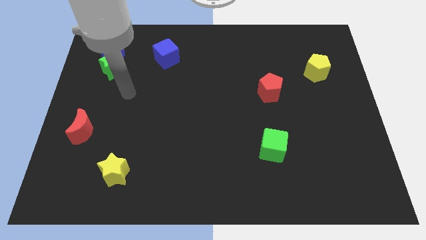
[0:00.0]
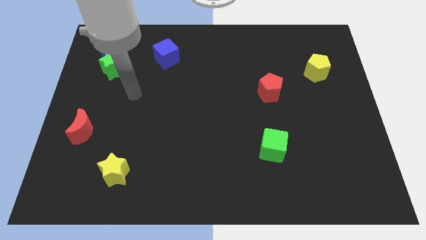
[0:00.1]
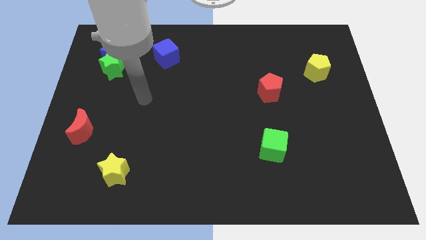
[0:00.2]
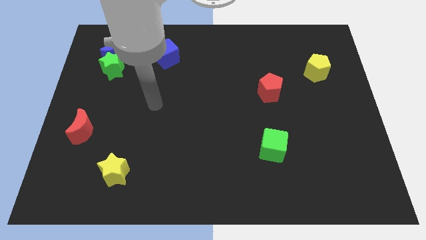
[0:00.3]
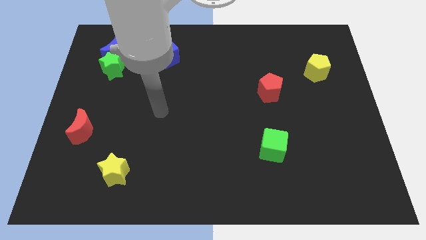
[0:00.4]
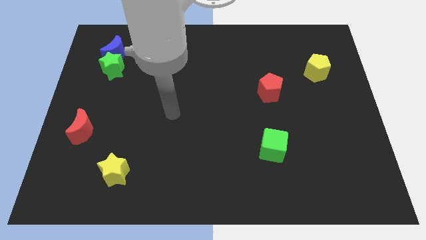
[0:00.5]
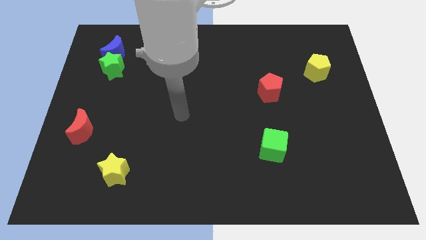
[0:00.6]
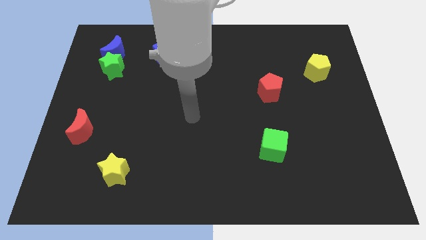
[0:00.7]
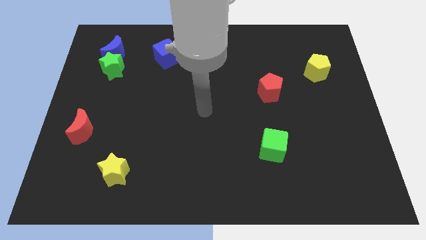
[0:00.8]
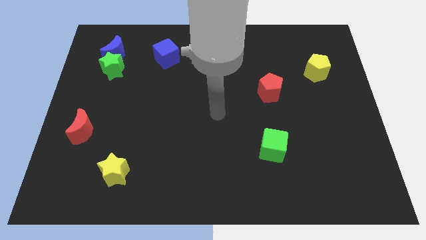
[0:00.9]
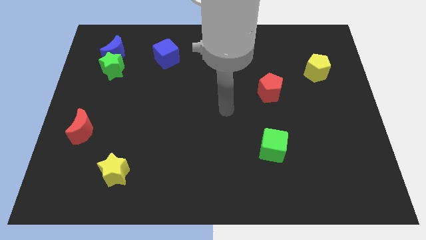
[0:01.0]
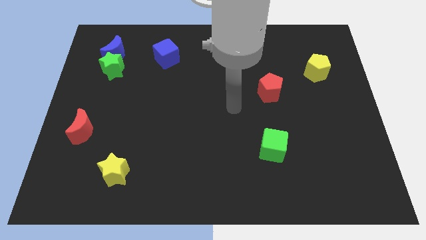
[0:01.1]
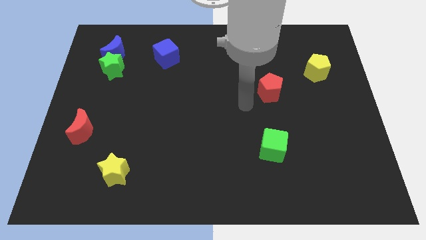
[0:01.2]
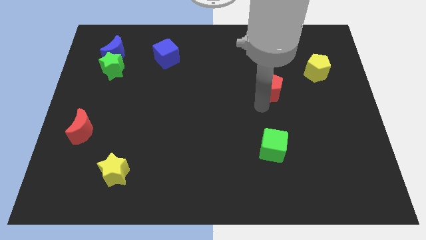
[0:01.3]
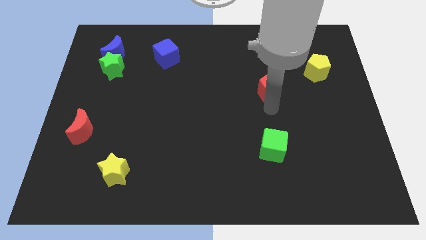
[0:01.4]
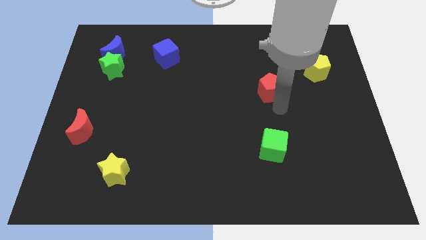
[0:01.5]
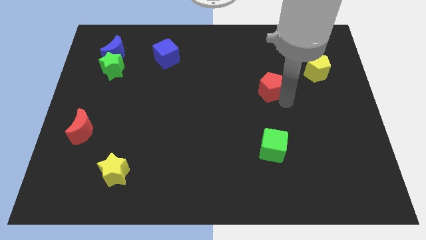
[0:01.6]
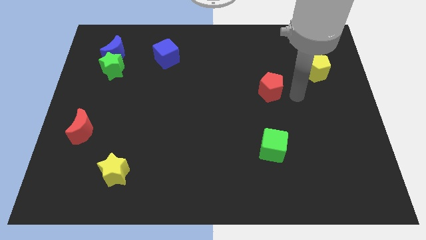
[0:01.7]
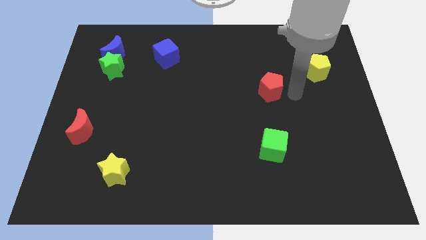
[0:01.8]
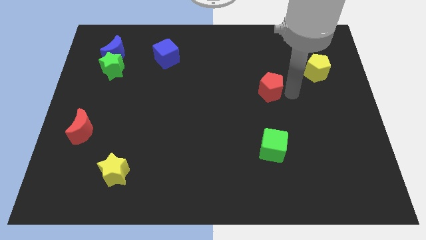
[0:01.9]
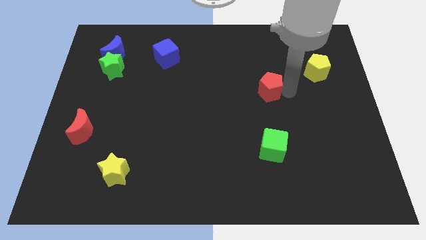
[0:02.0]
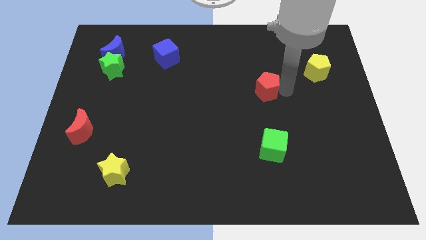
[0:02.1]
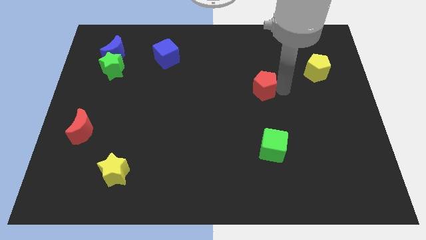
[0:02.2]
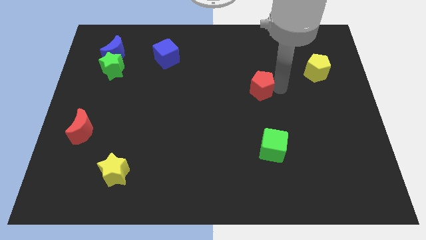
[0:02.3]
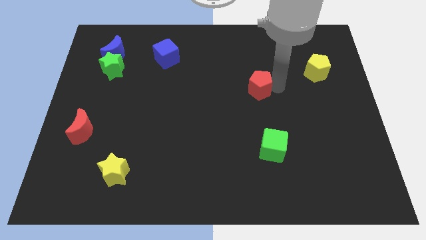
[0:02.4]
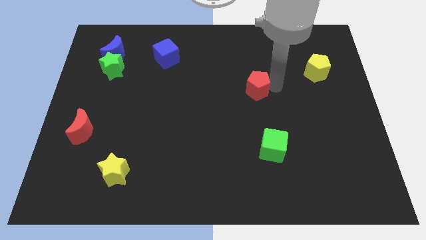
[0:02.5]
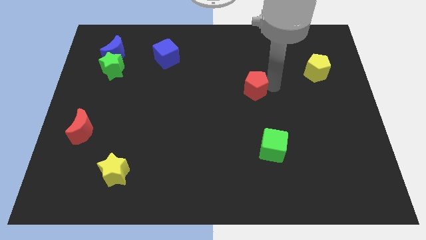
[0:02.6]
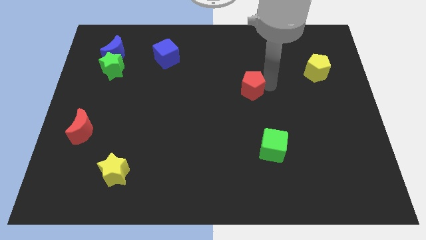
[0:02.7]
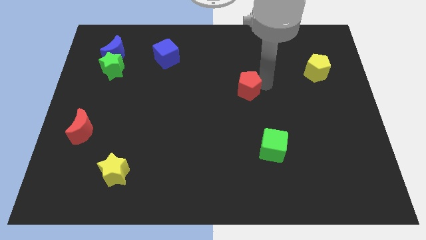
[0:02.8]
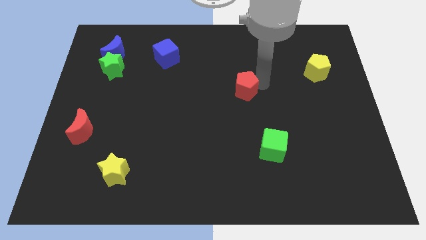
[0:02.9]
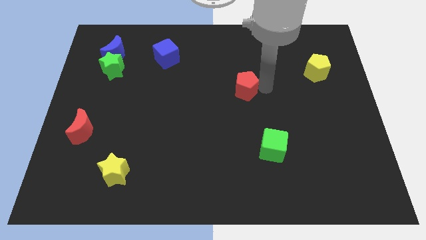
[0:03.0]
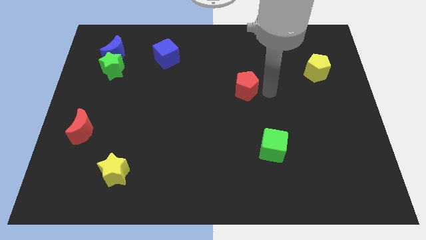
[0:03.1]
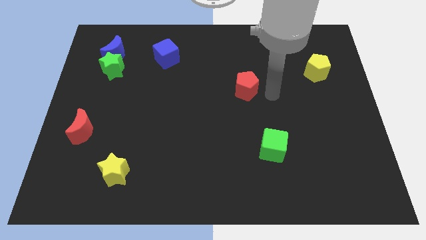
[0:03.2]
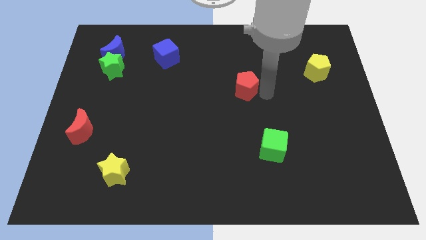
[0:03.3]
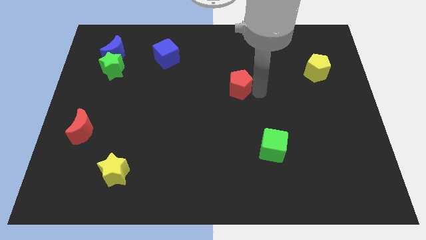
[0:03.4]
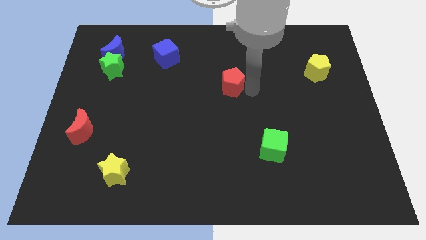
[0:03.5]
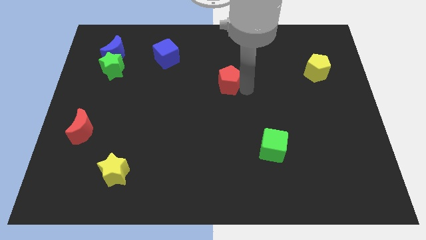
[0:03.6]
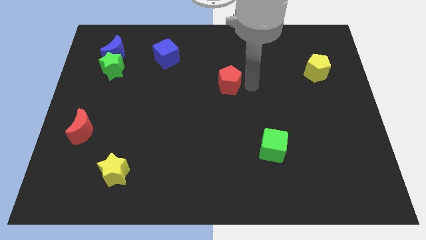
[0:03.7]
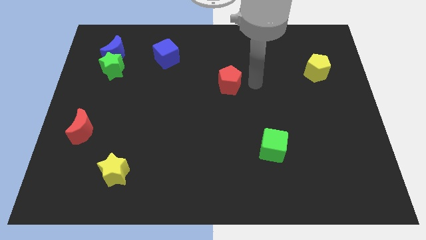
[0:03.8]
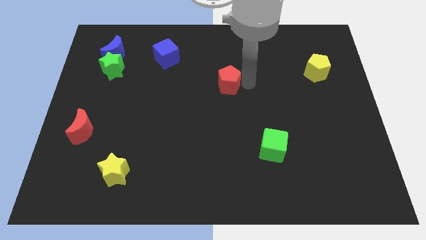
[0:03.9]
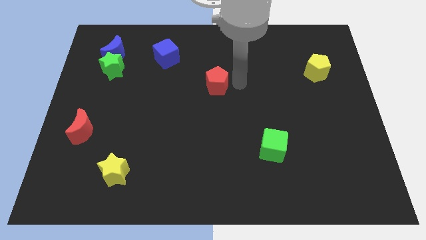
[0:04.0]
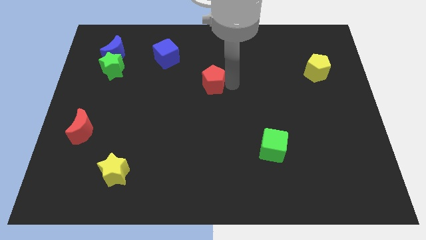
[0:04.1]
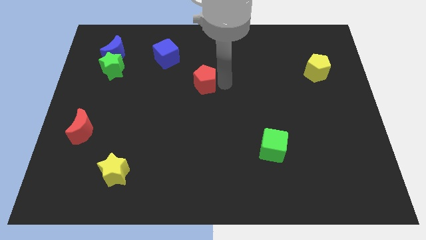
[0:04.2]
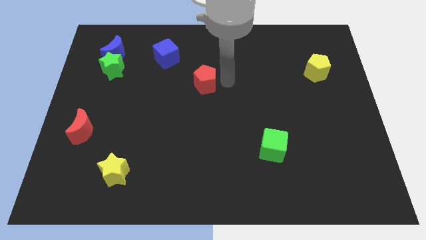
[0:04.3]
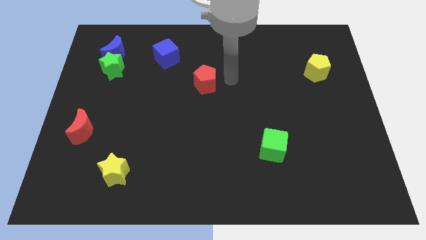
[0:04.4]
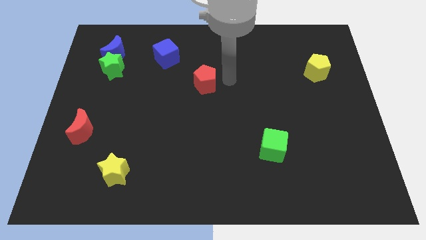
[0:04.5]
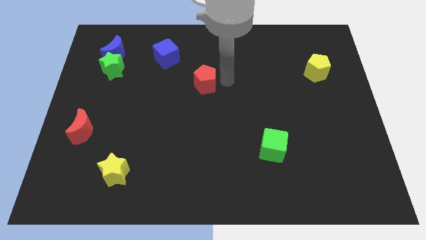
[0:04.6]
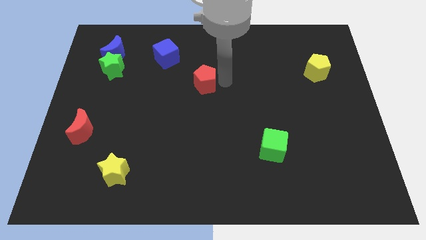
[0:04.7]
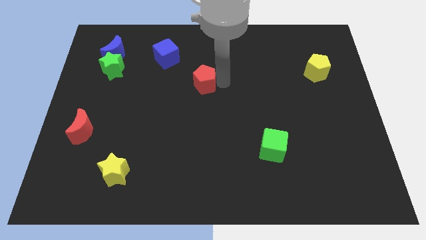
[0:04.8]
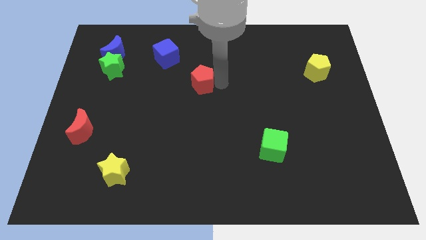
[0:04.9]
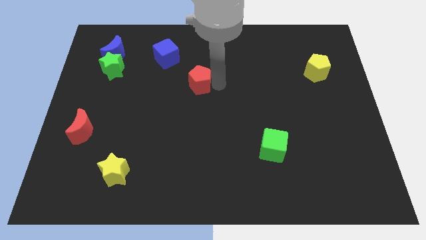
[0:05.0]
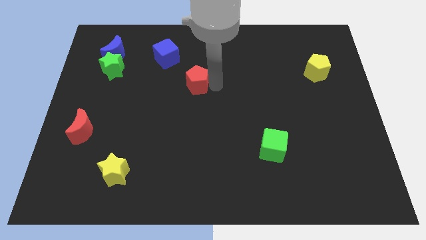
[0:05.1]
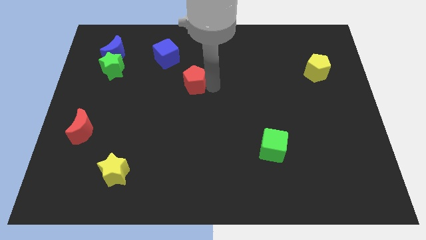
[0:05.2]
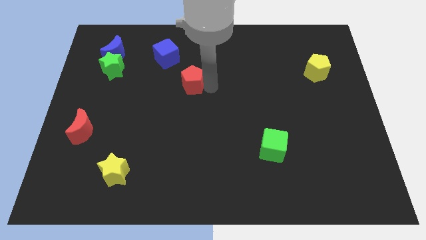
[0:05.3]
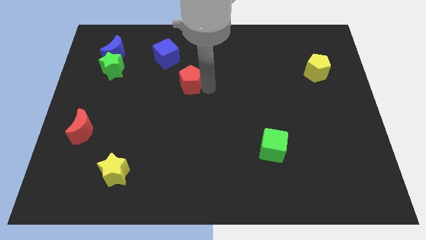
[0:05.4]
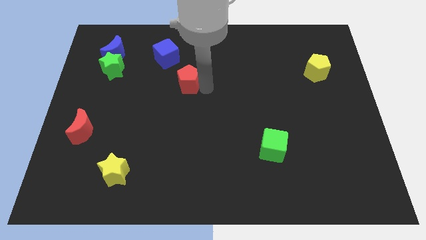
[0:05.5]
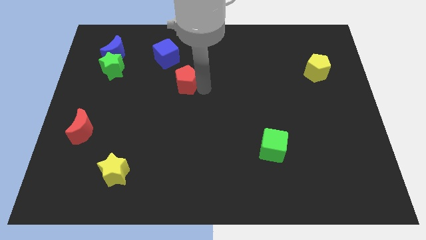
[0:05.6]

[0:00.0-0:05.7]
move the red pentagon left

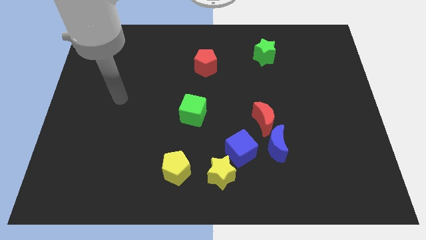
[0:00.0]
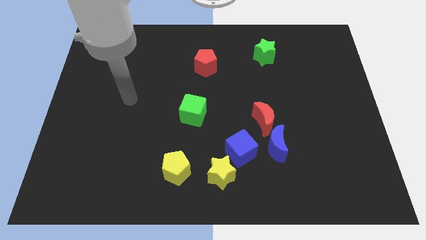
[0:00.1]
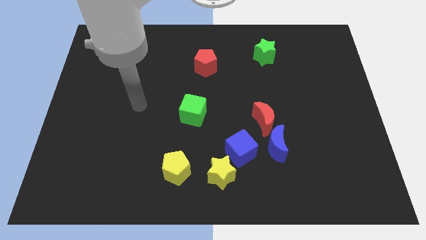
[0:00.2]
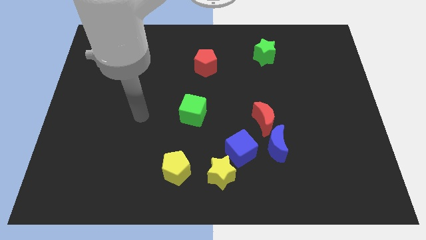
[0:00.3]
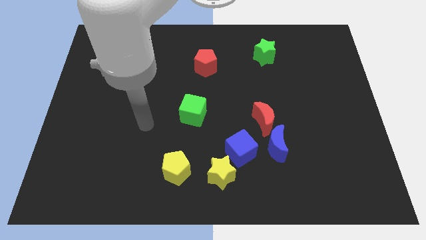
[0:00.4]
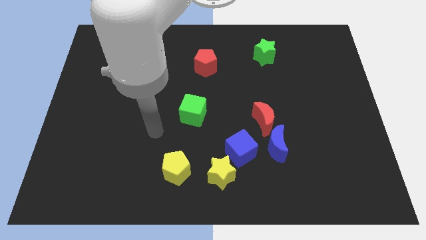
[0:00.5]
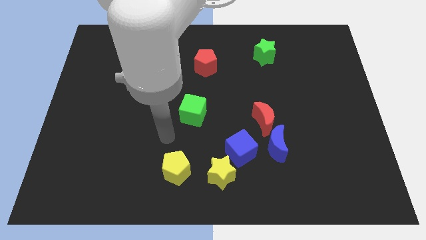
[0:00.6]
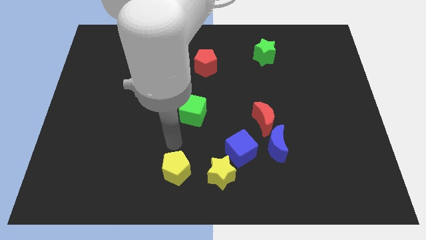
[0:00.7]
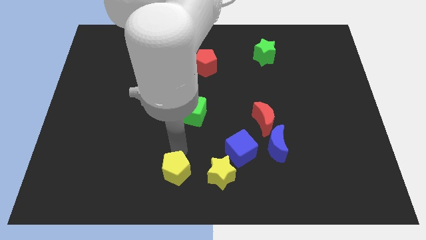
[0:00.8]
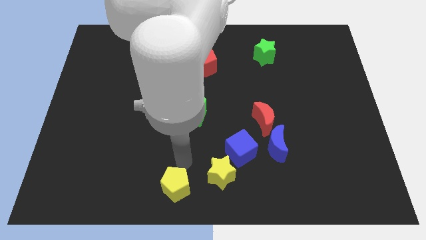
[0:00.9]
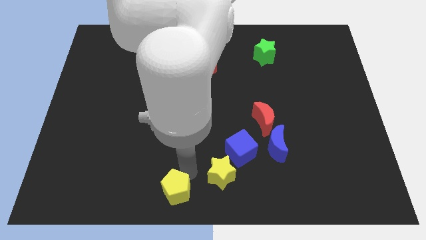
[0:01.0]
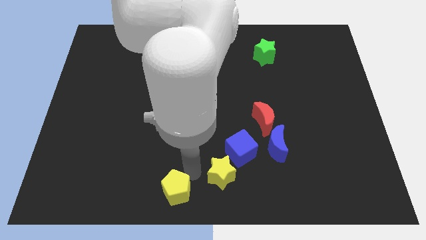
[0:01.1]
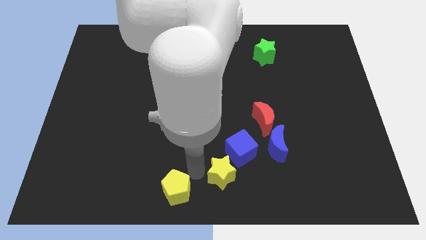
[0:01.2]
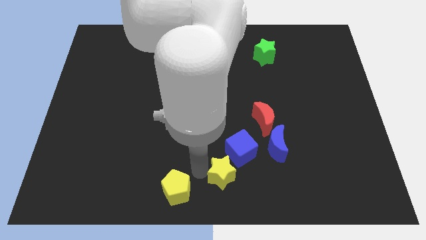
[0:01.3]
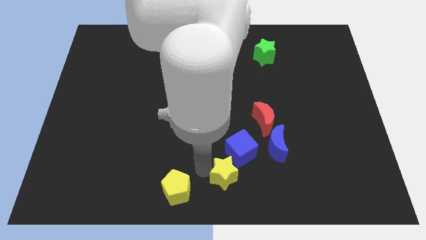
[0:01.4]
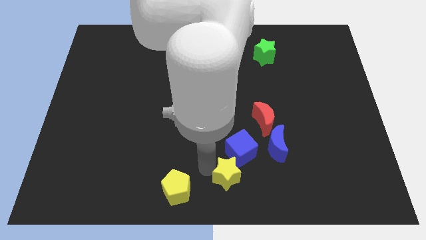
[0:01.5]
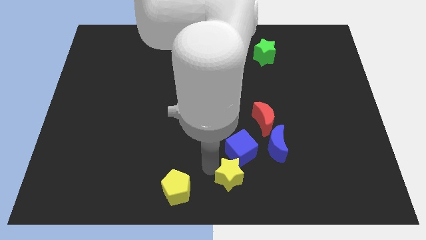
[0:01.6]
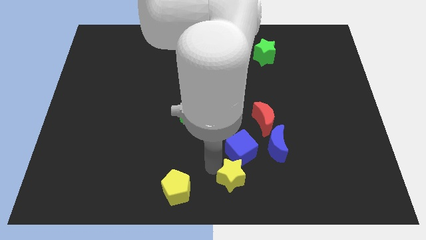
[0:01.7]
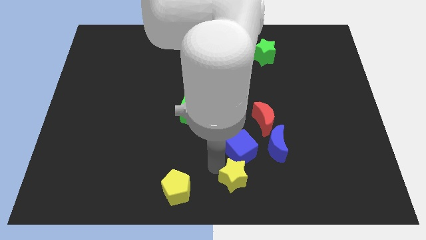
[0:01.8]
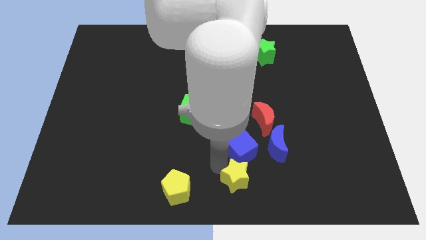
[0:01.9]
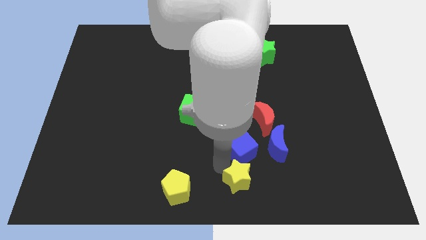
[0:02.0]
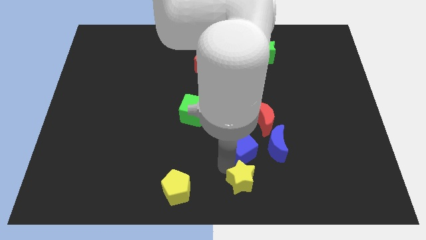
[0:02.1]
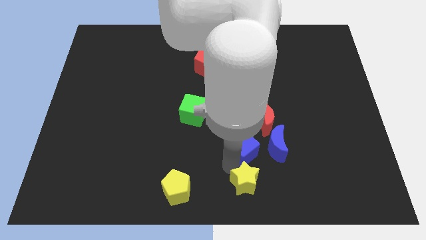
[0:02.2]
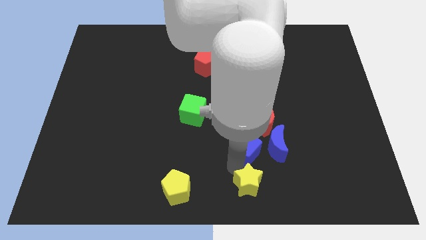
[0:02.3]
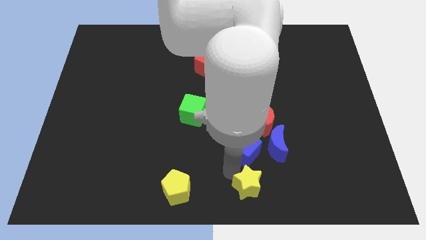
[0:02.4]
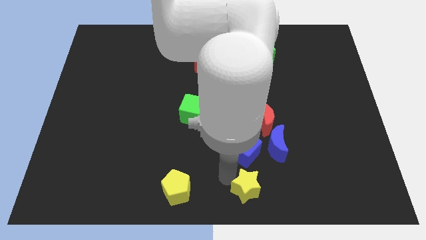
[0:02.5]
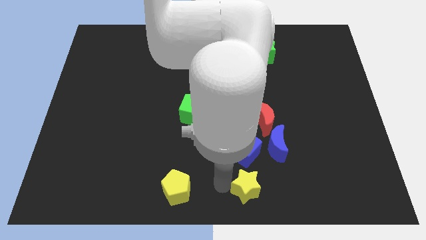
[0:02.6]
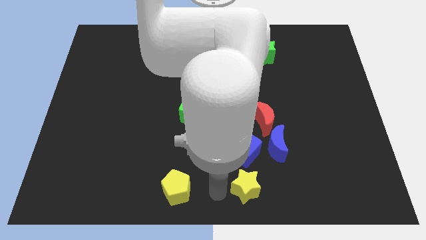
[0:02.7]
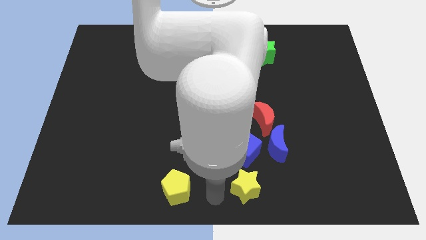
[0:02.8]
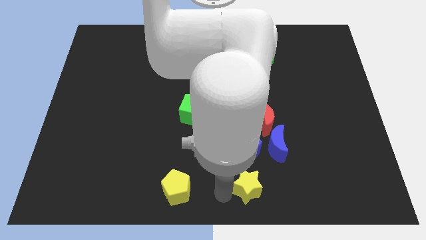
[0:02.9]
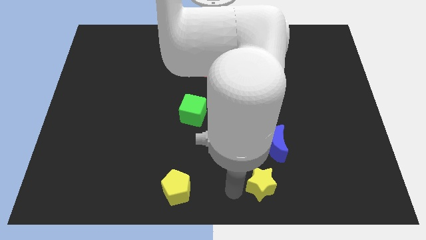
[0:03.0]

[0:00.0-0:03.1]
slide the yellow star to the right a little
